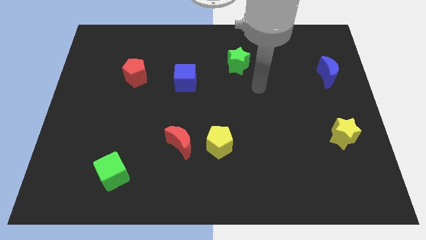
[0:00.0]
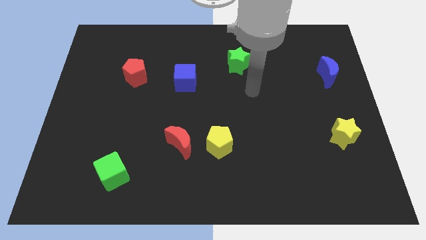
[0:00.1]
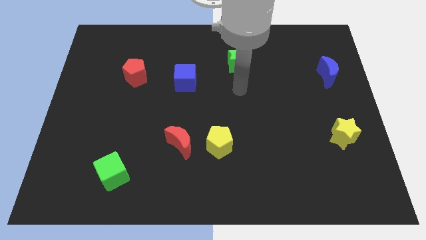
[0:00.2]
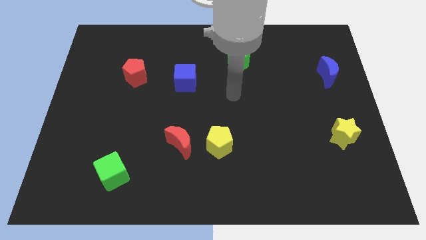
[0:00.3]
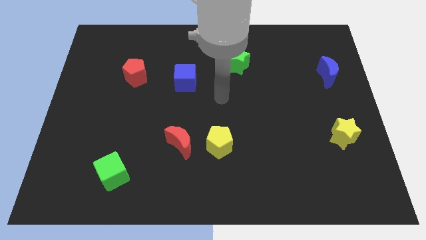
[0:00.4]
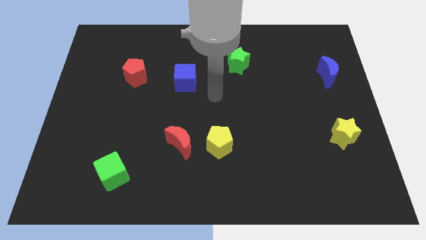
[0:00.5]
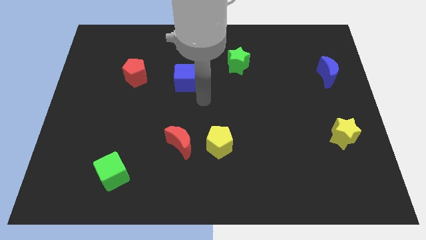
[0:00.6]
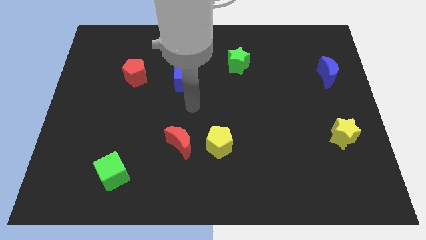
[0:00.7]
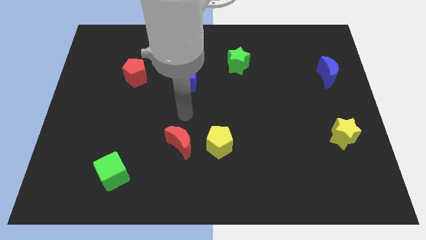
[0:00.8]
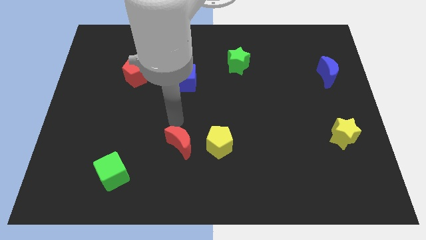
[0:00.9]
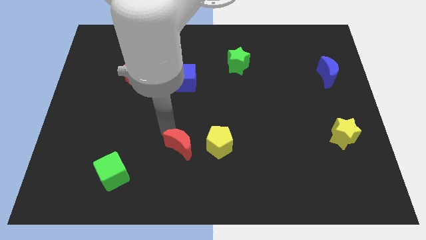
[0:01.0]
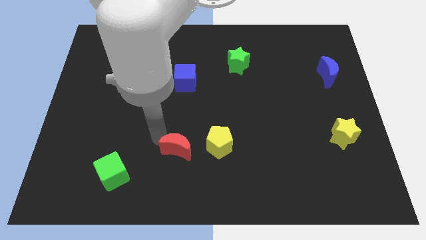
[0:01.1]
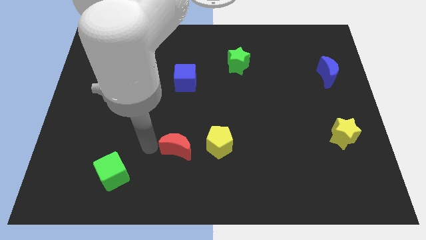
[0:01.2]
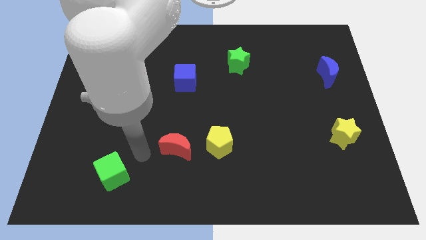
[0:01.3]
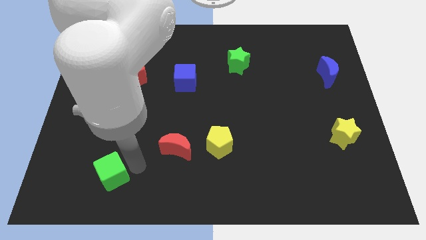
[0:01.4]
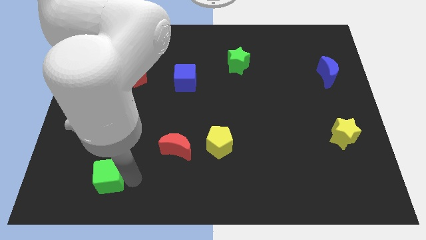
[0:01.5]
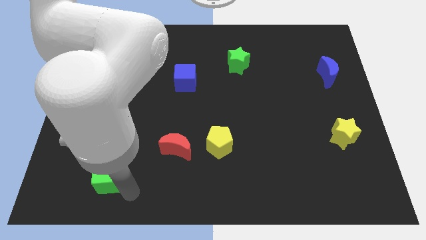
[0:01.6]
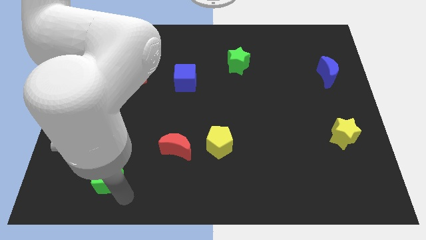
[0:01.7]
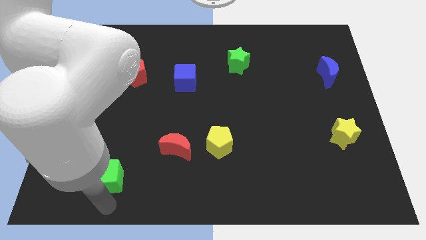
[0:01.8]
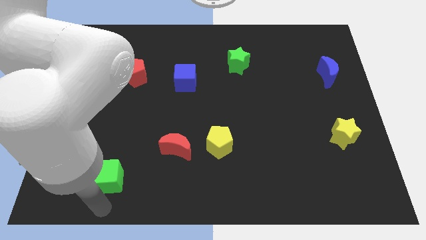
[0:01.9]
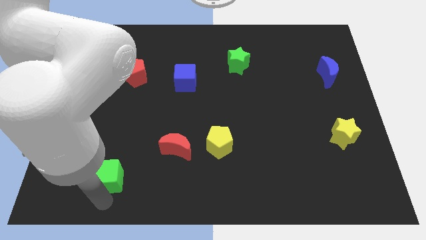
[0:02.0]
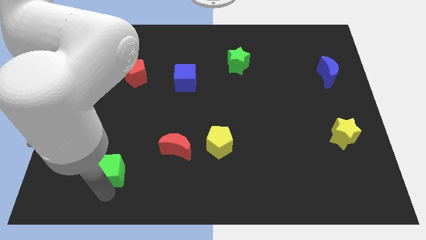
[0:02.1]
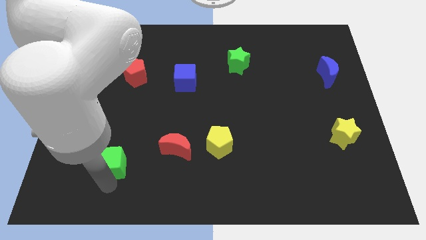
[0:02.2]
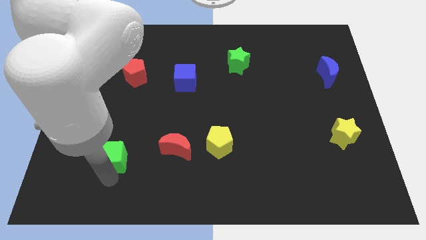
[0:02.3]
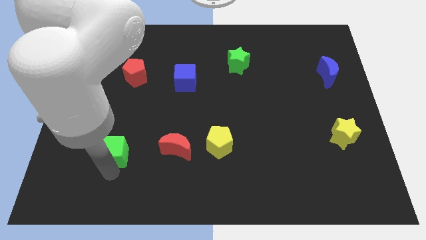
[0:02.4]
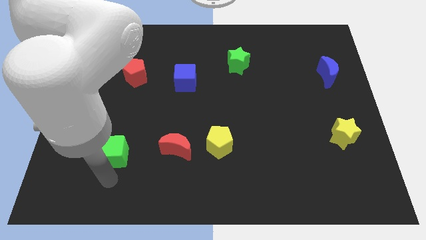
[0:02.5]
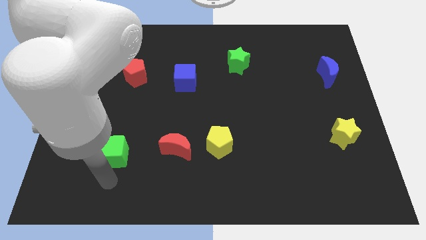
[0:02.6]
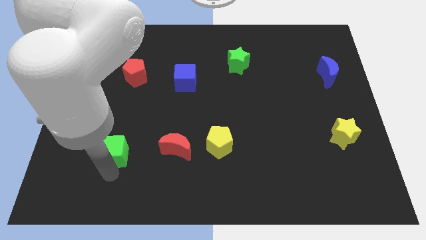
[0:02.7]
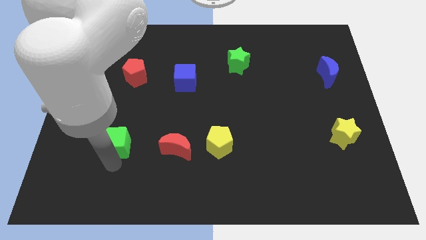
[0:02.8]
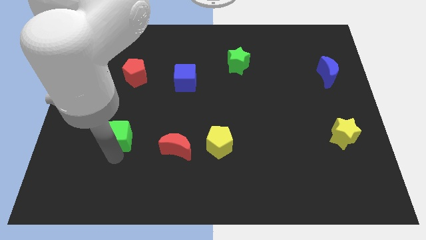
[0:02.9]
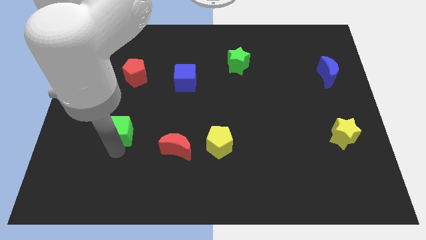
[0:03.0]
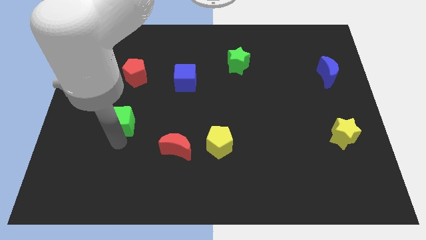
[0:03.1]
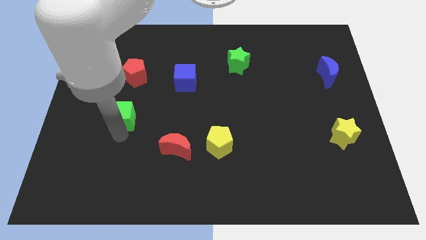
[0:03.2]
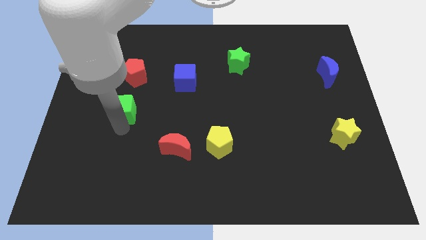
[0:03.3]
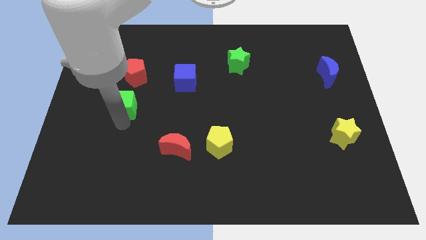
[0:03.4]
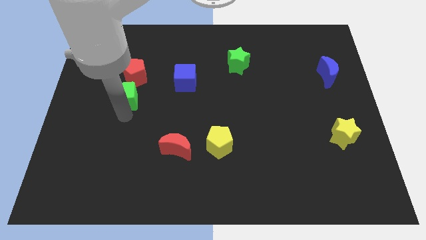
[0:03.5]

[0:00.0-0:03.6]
push the green cube upwards

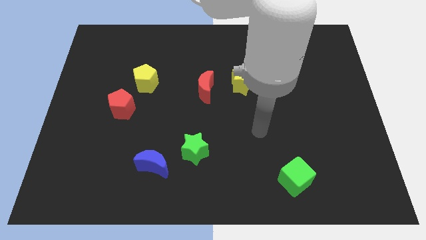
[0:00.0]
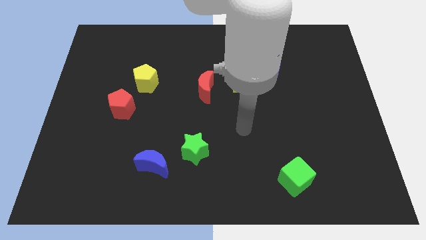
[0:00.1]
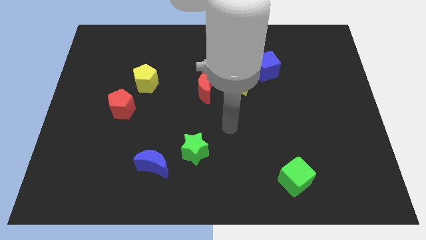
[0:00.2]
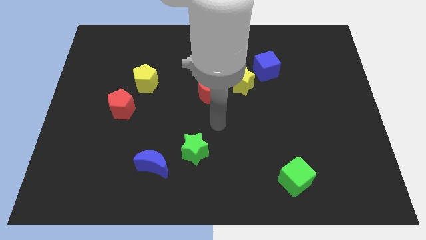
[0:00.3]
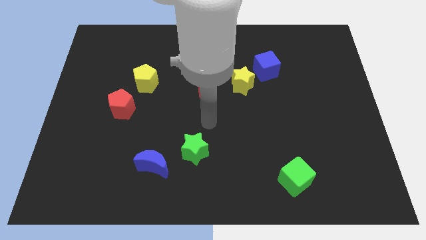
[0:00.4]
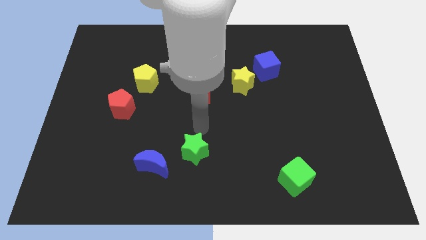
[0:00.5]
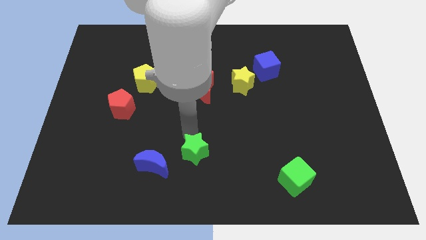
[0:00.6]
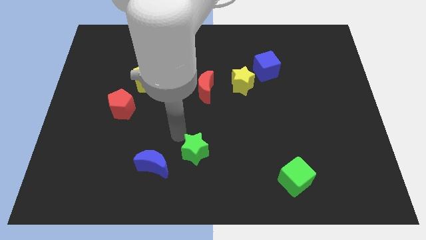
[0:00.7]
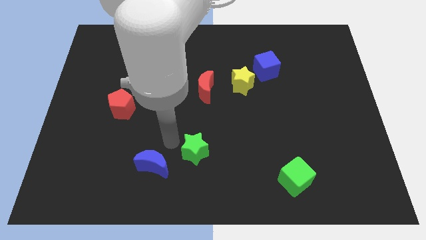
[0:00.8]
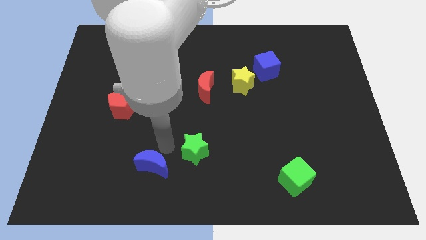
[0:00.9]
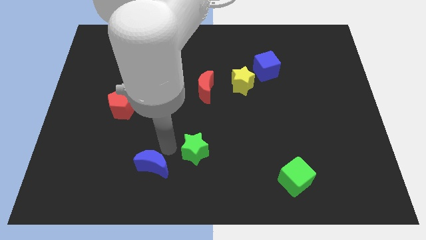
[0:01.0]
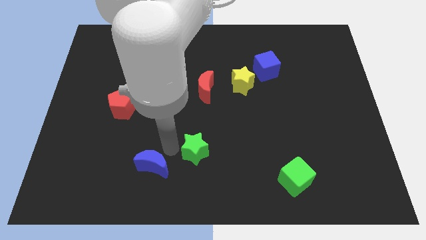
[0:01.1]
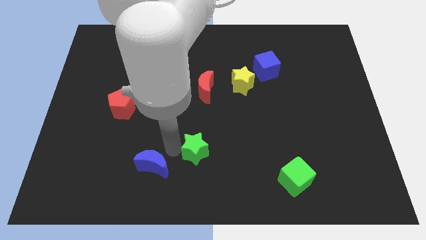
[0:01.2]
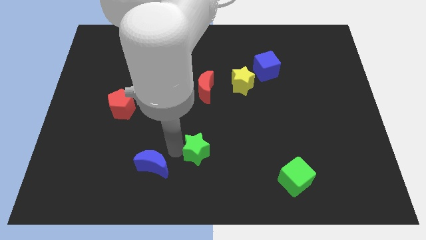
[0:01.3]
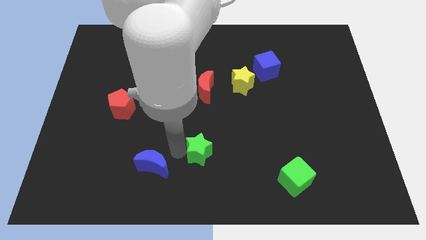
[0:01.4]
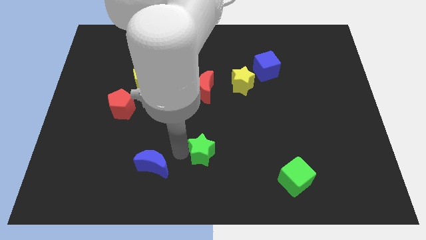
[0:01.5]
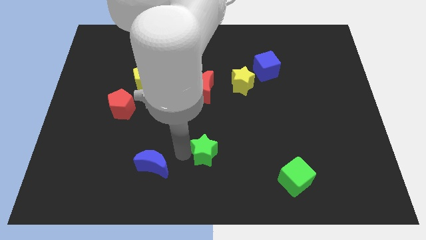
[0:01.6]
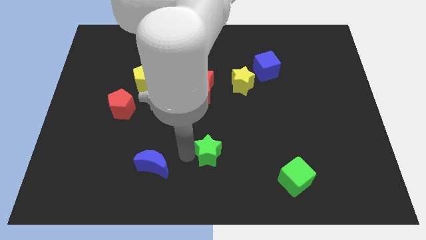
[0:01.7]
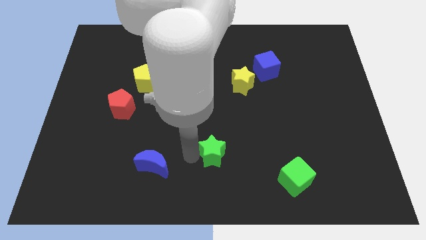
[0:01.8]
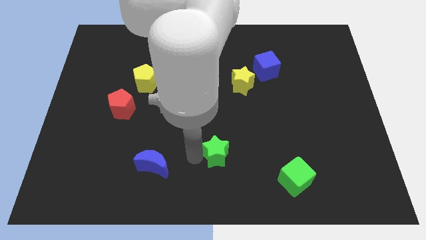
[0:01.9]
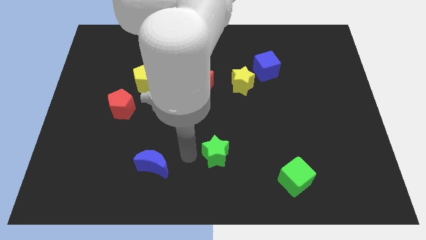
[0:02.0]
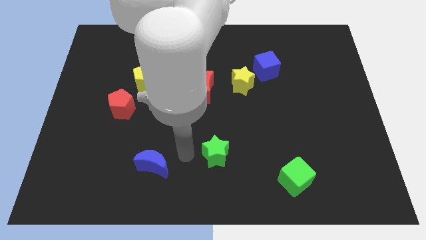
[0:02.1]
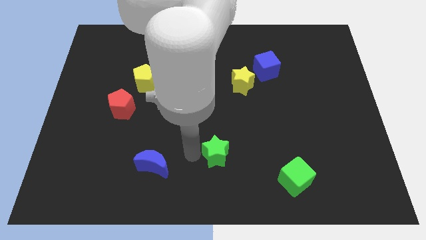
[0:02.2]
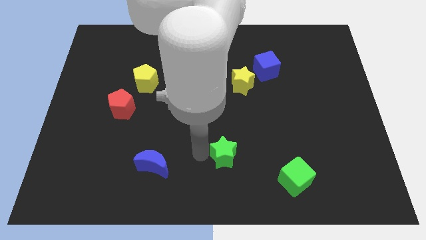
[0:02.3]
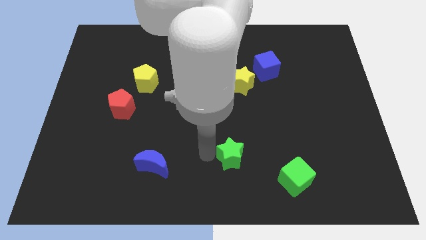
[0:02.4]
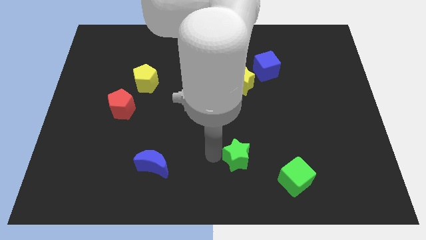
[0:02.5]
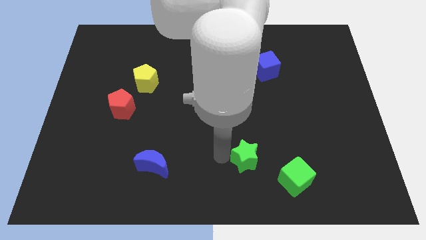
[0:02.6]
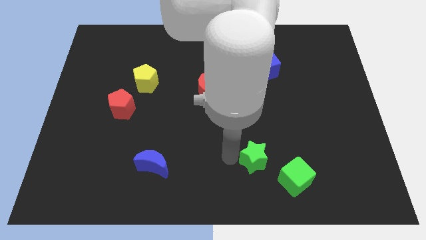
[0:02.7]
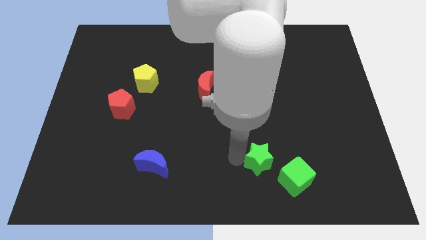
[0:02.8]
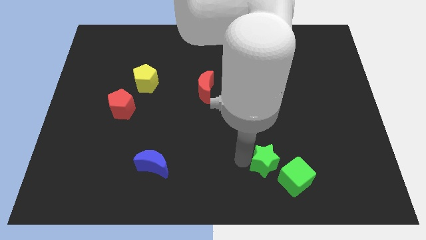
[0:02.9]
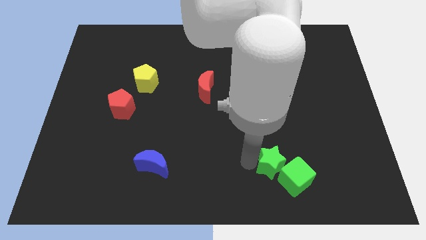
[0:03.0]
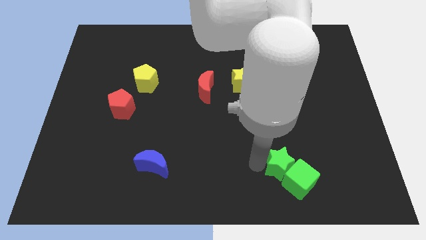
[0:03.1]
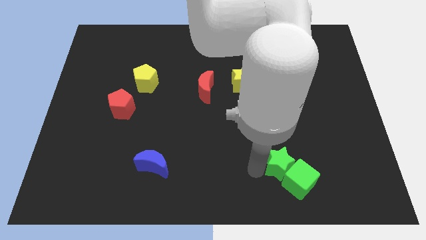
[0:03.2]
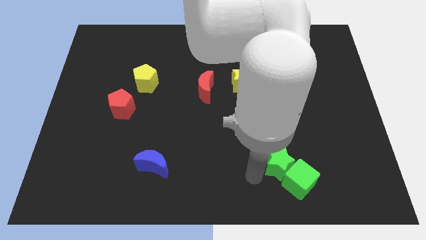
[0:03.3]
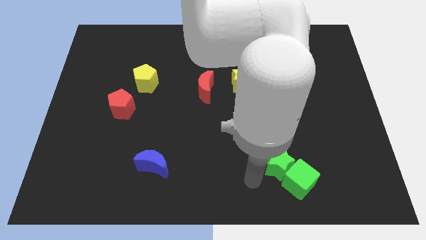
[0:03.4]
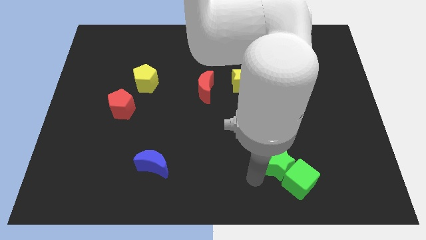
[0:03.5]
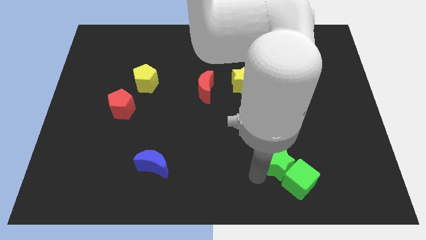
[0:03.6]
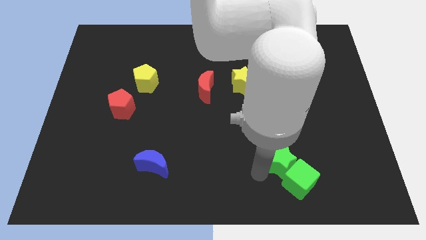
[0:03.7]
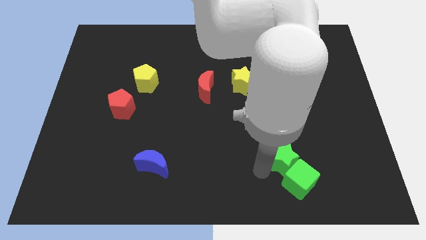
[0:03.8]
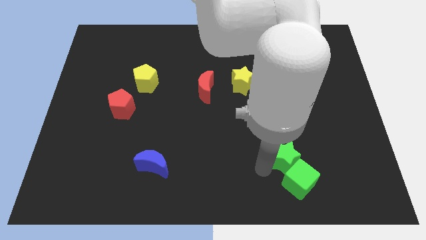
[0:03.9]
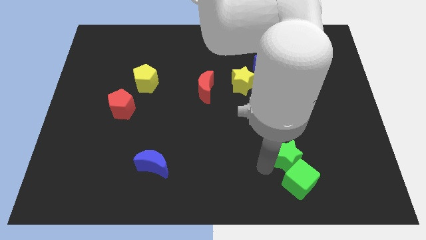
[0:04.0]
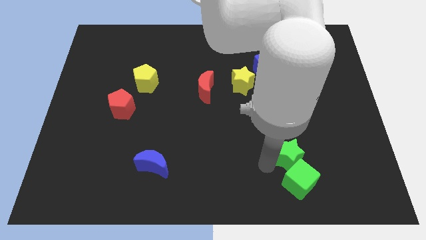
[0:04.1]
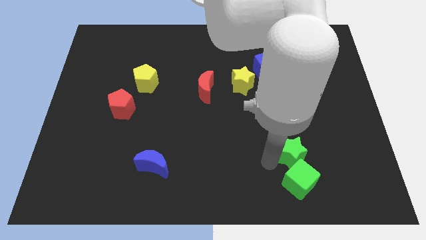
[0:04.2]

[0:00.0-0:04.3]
push the green star right

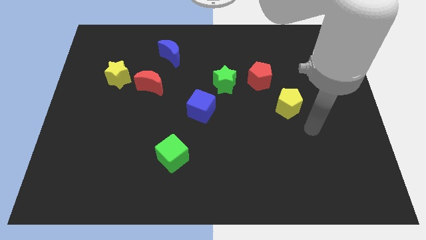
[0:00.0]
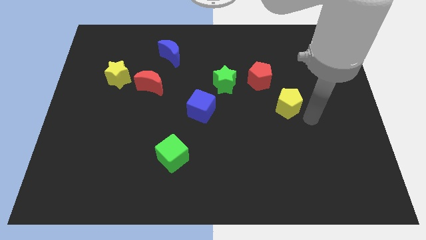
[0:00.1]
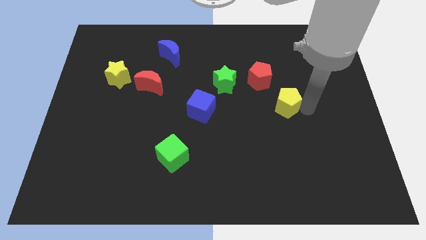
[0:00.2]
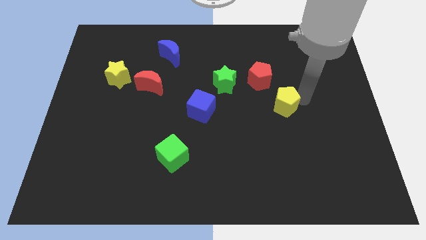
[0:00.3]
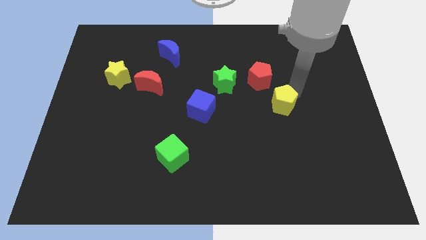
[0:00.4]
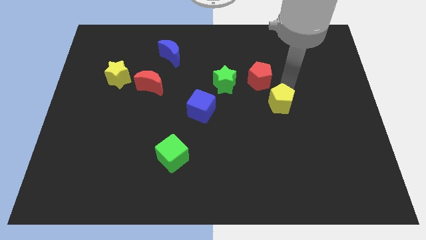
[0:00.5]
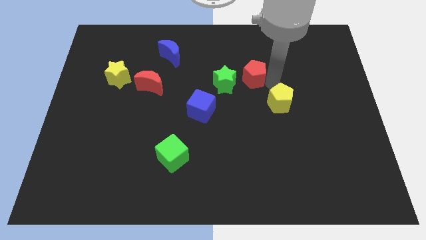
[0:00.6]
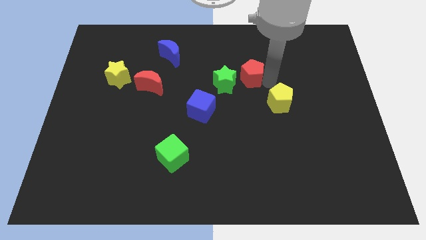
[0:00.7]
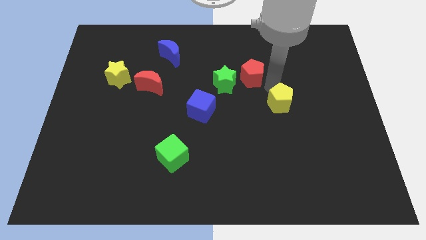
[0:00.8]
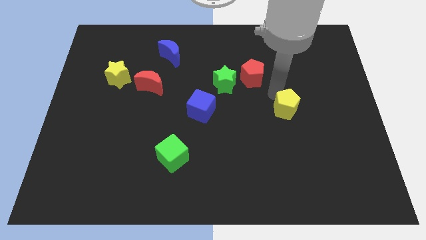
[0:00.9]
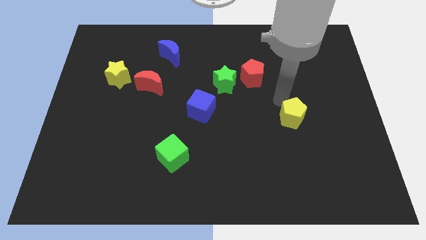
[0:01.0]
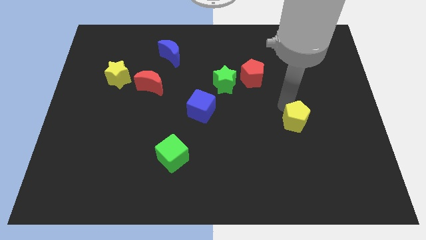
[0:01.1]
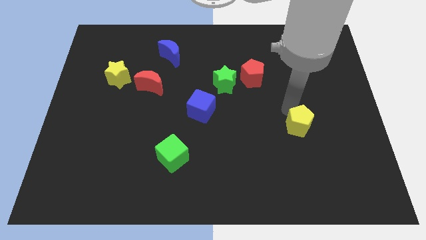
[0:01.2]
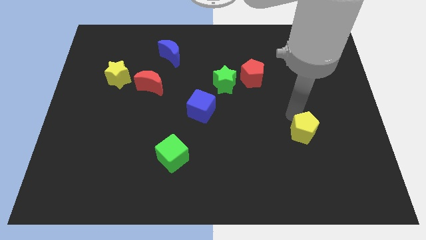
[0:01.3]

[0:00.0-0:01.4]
move the yellow pentagon down slightly
